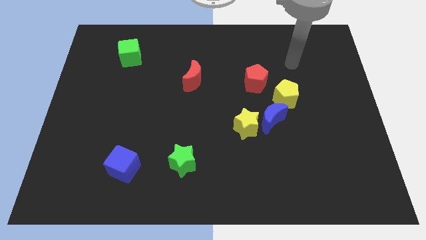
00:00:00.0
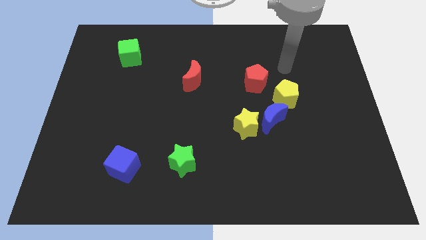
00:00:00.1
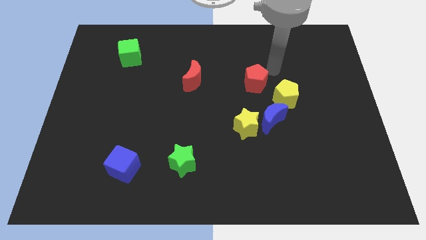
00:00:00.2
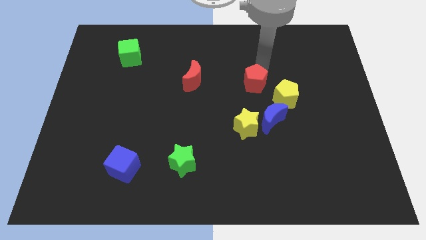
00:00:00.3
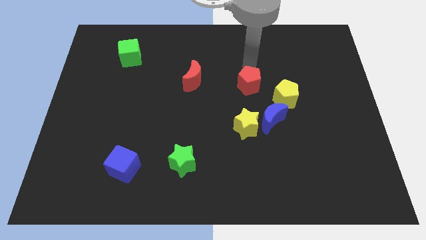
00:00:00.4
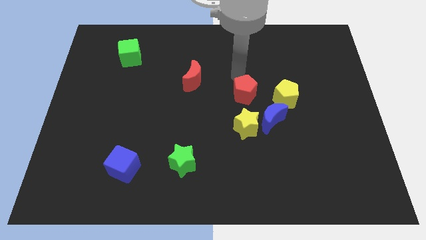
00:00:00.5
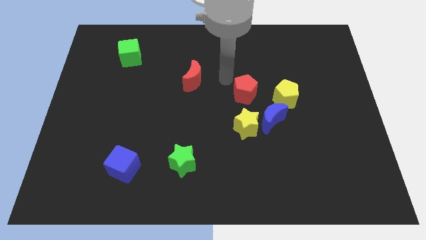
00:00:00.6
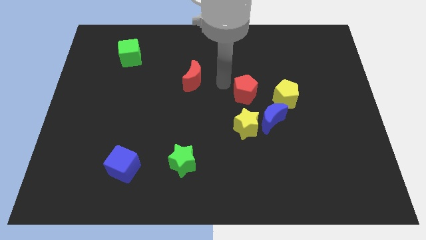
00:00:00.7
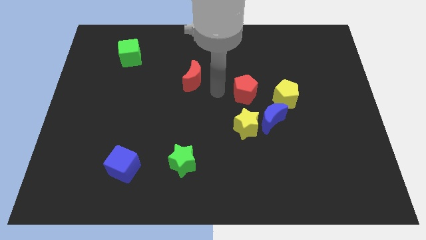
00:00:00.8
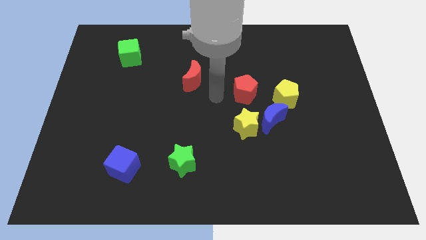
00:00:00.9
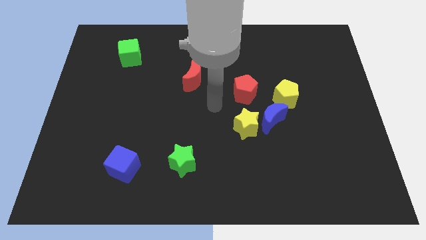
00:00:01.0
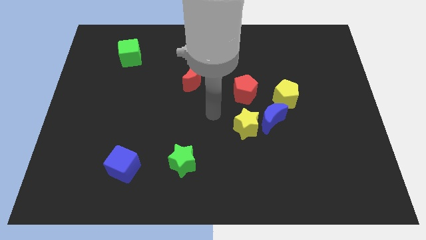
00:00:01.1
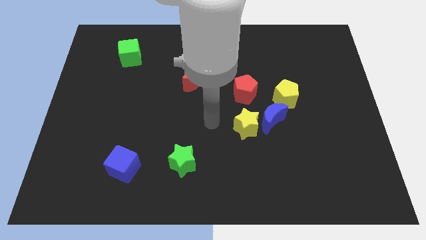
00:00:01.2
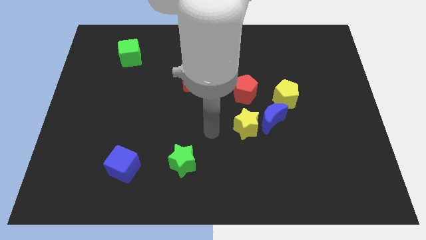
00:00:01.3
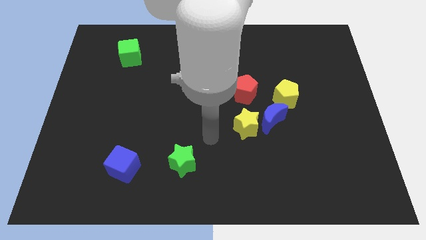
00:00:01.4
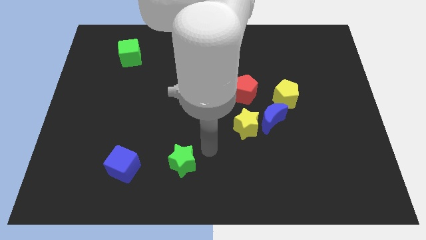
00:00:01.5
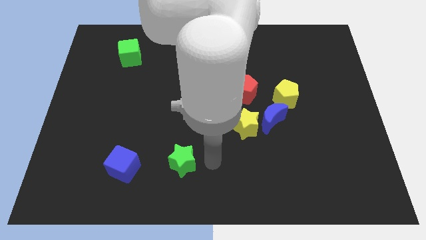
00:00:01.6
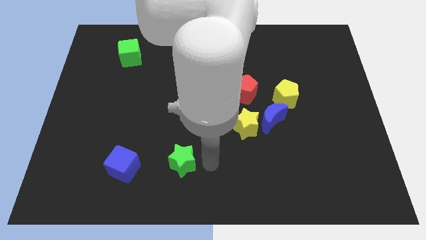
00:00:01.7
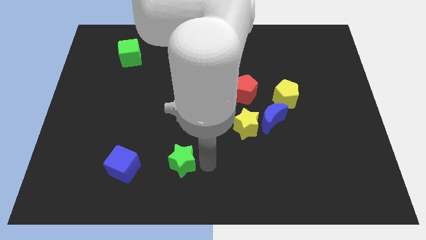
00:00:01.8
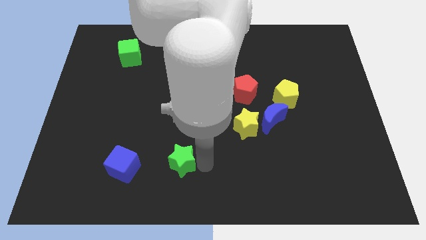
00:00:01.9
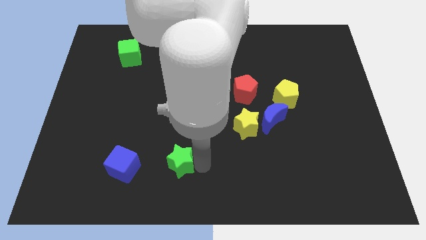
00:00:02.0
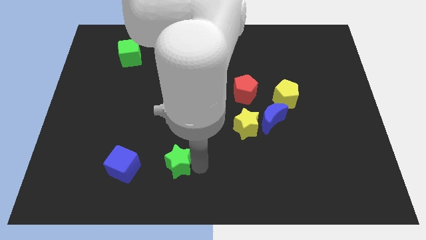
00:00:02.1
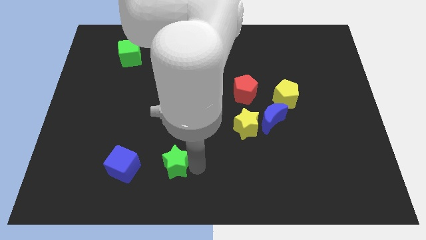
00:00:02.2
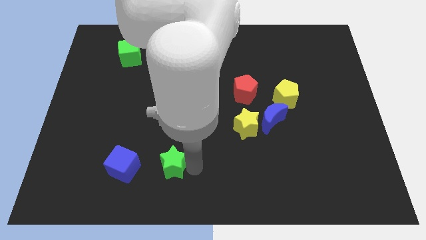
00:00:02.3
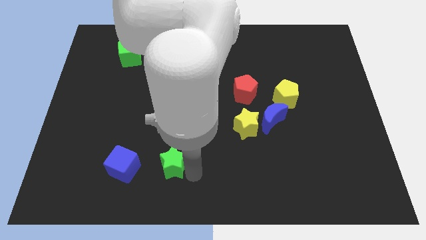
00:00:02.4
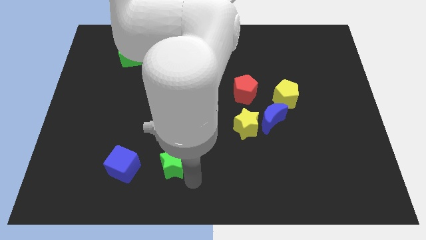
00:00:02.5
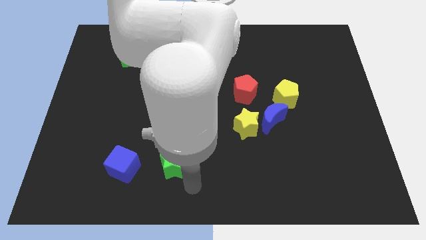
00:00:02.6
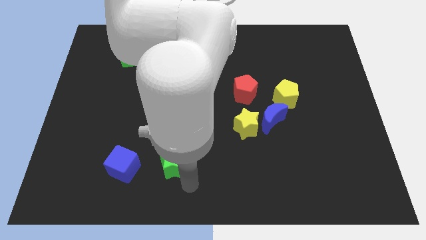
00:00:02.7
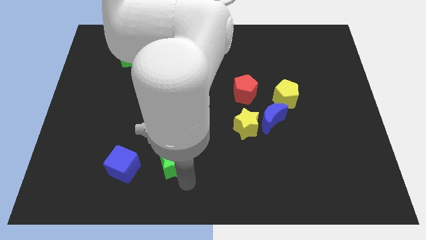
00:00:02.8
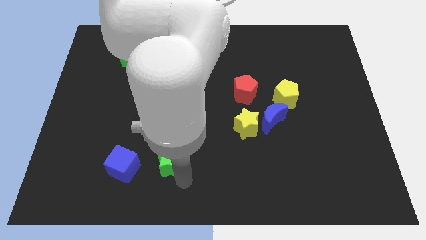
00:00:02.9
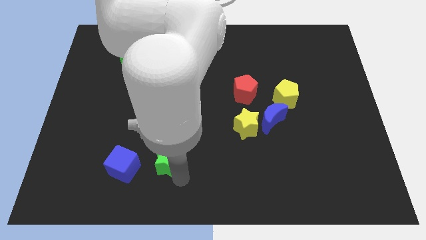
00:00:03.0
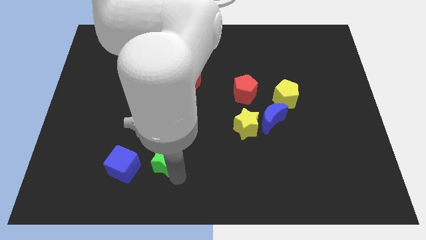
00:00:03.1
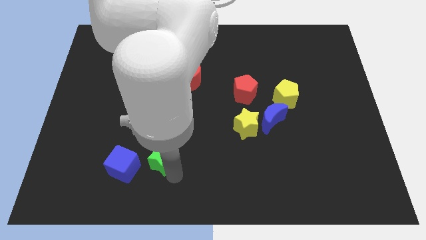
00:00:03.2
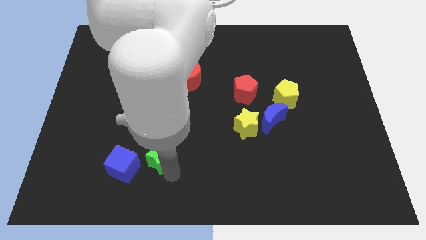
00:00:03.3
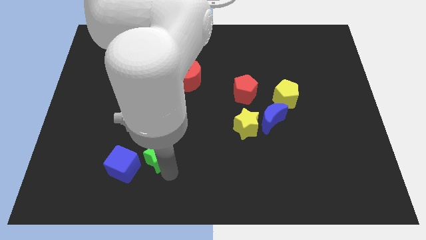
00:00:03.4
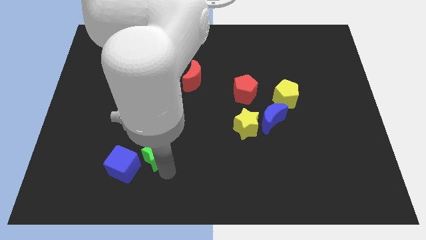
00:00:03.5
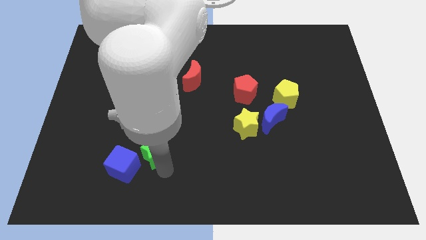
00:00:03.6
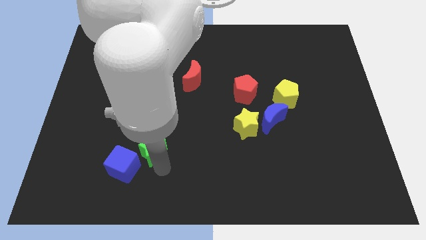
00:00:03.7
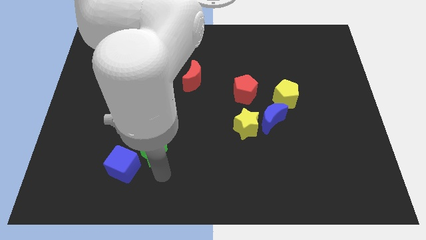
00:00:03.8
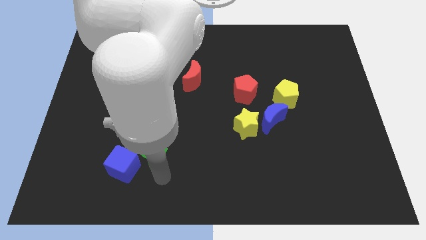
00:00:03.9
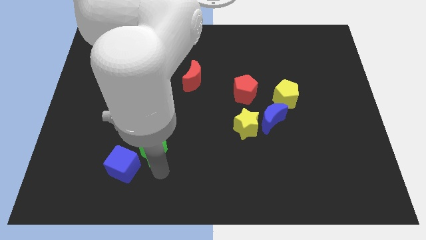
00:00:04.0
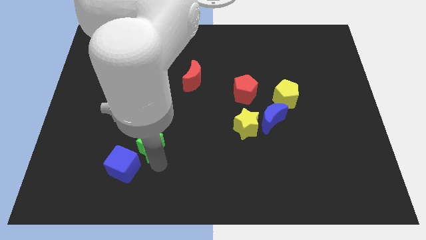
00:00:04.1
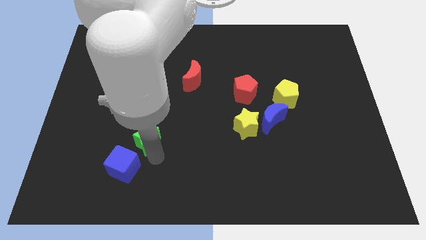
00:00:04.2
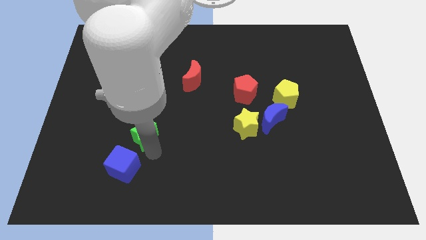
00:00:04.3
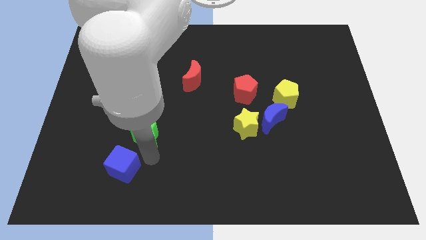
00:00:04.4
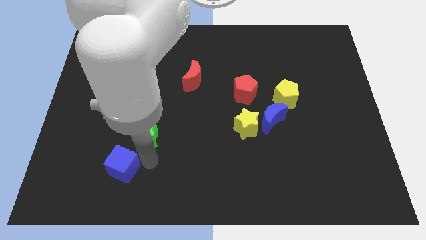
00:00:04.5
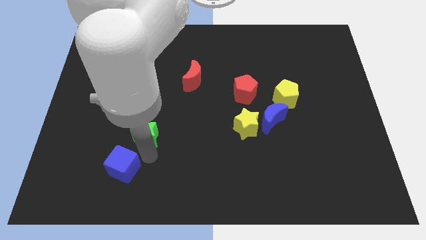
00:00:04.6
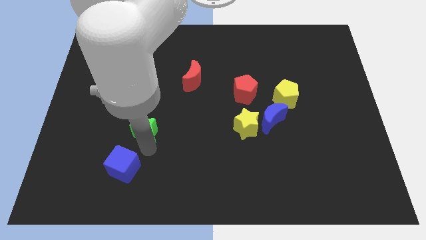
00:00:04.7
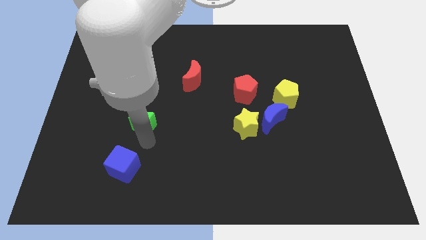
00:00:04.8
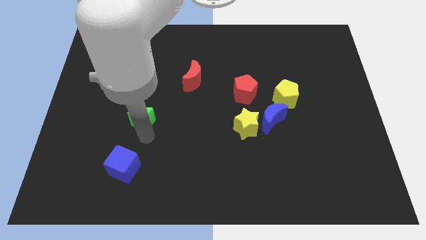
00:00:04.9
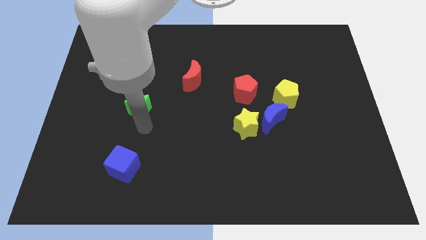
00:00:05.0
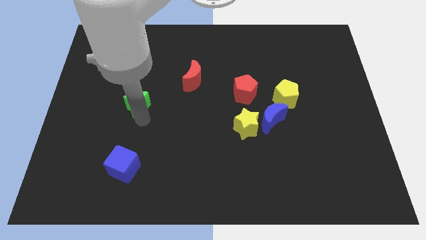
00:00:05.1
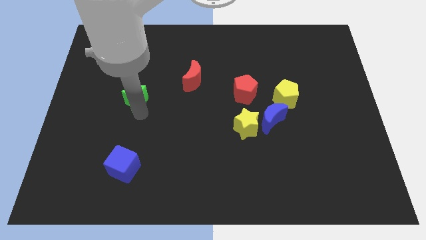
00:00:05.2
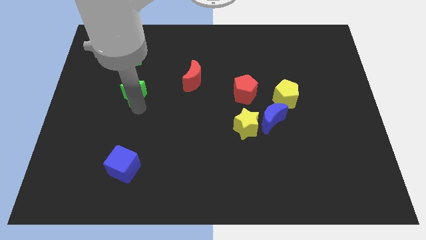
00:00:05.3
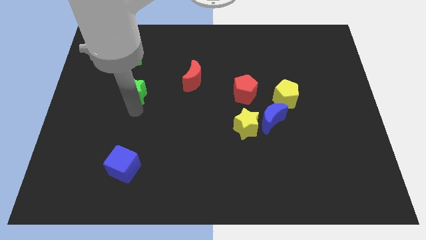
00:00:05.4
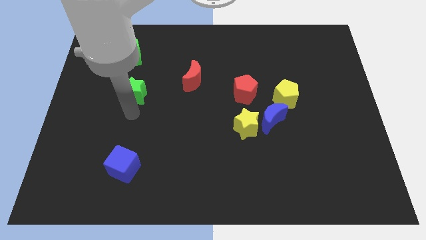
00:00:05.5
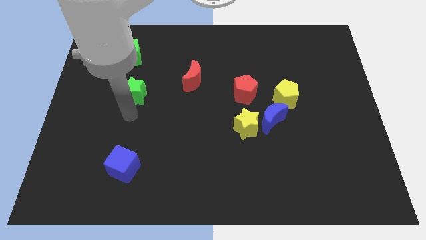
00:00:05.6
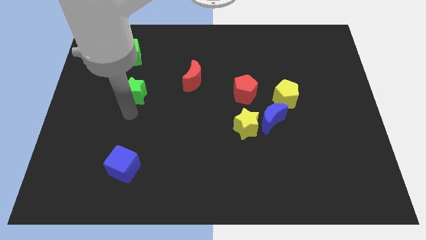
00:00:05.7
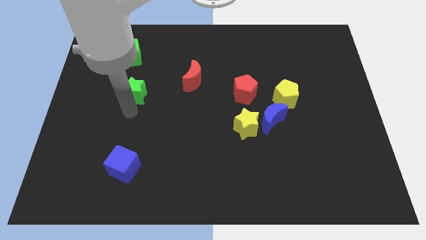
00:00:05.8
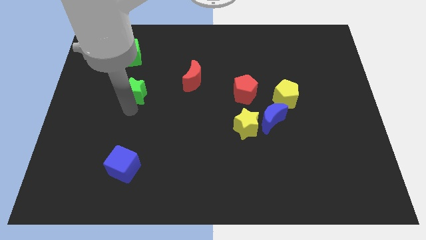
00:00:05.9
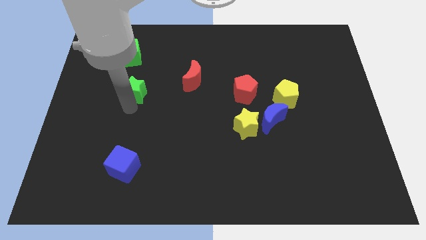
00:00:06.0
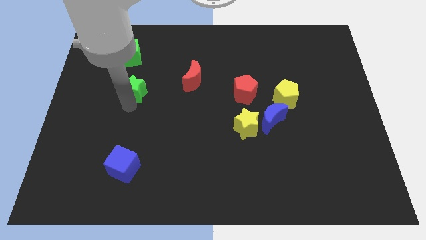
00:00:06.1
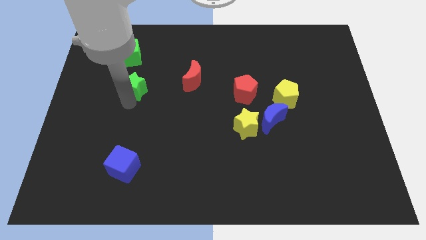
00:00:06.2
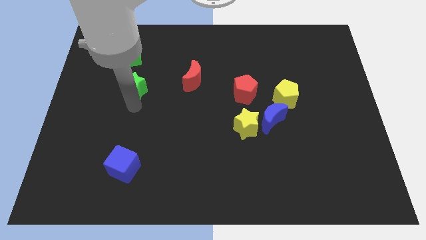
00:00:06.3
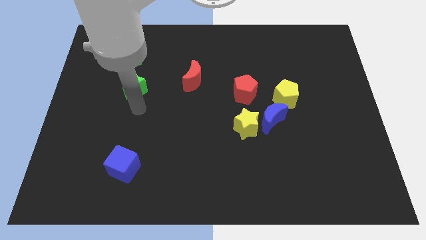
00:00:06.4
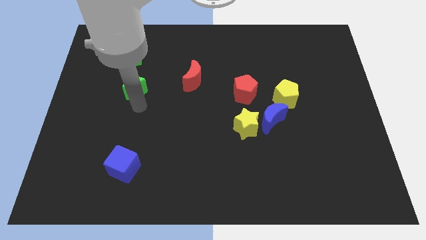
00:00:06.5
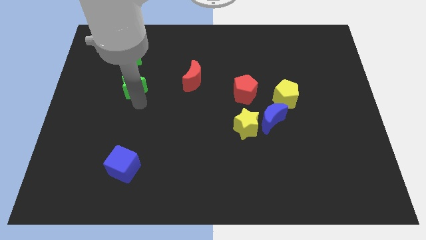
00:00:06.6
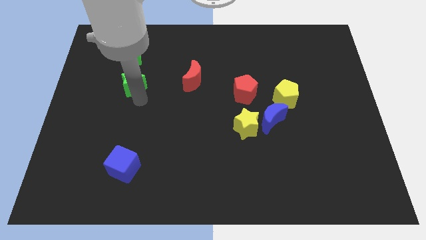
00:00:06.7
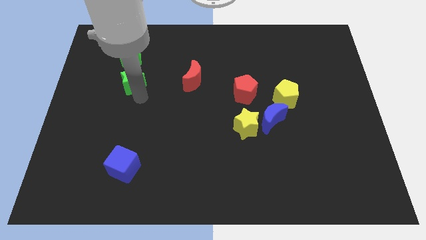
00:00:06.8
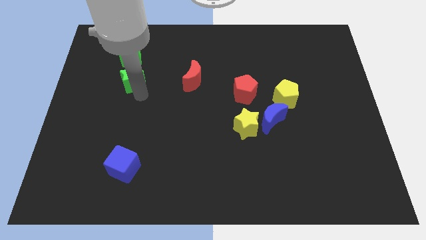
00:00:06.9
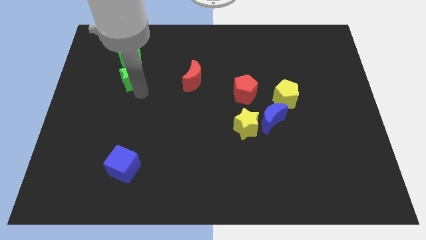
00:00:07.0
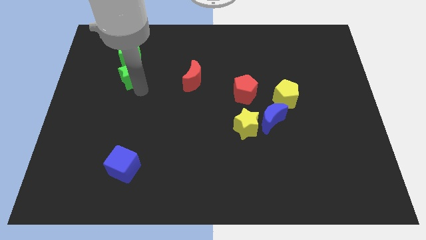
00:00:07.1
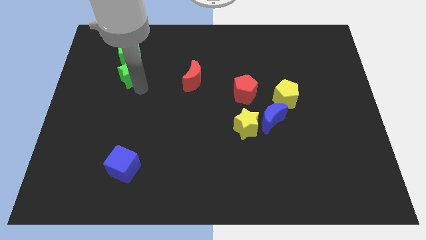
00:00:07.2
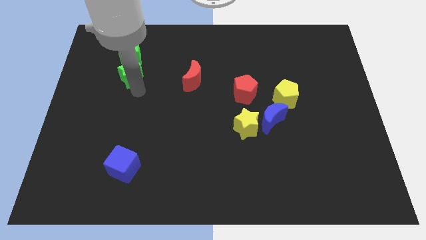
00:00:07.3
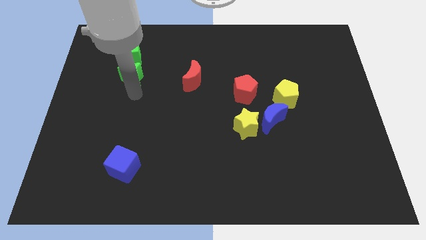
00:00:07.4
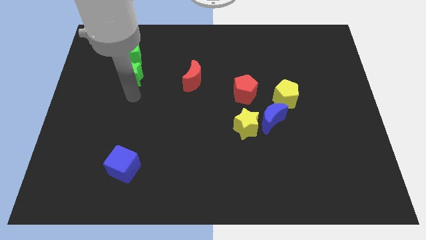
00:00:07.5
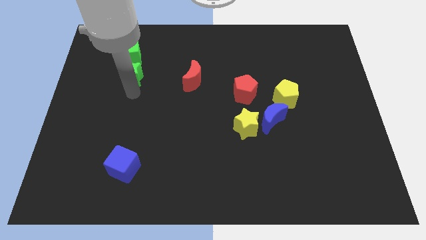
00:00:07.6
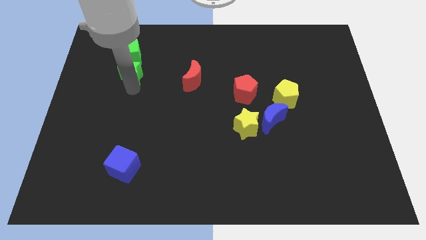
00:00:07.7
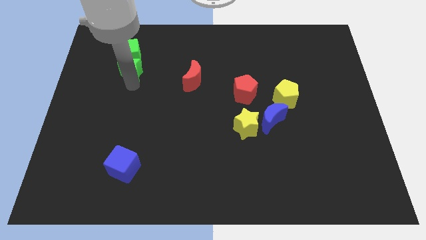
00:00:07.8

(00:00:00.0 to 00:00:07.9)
put the green star to the green cube
